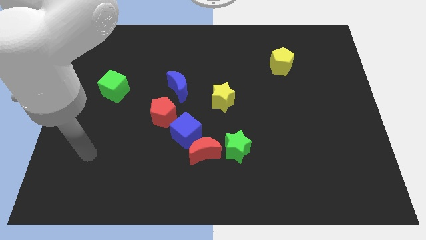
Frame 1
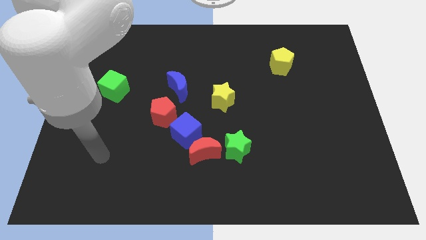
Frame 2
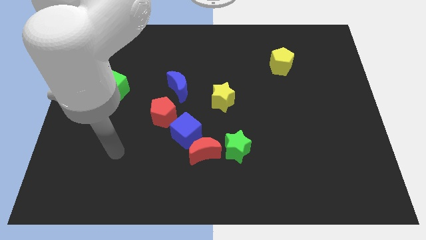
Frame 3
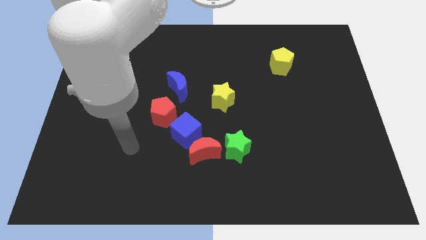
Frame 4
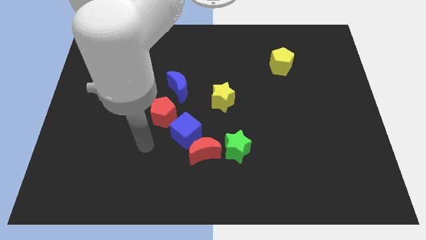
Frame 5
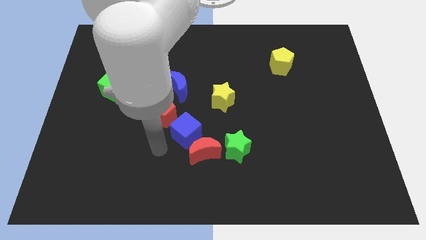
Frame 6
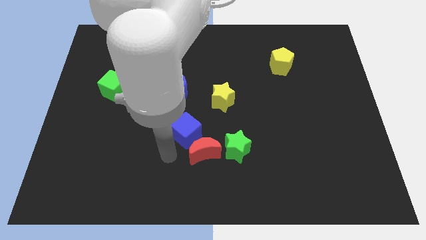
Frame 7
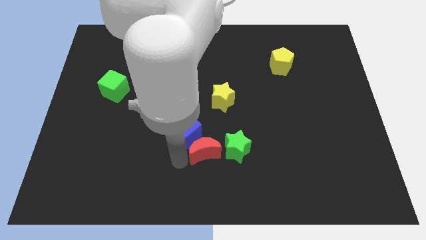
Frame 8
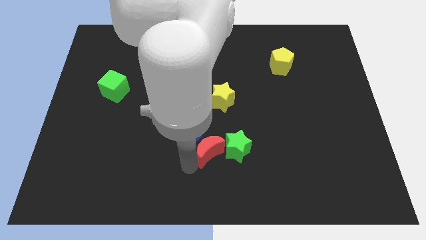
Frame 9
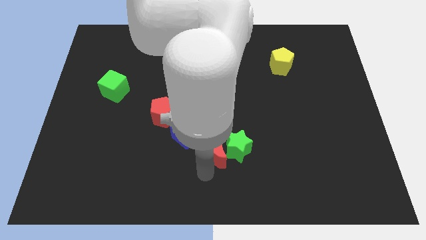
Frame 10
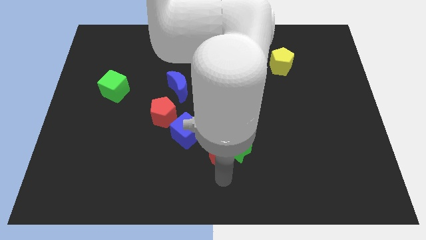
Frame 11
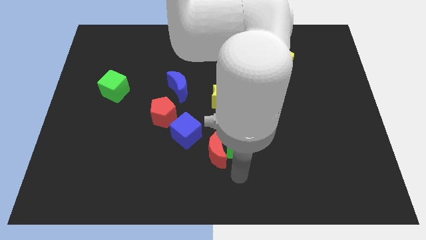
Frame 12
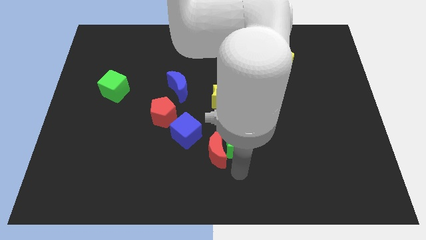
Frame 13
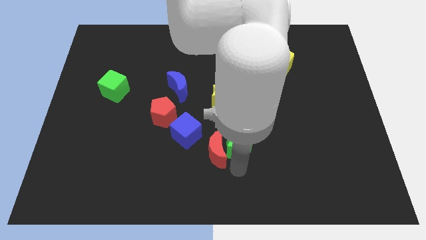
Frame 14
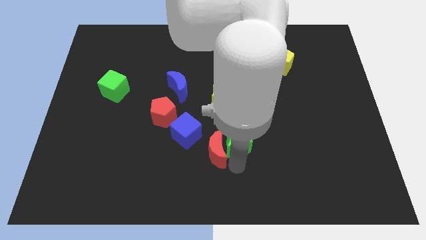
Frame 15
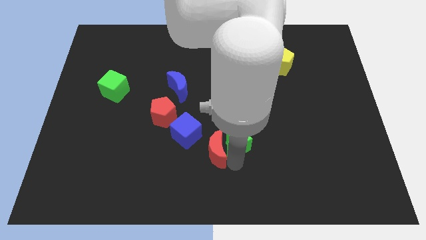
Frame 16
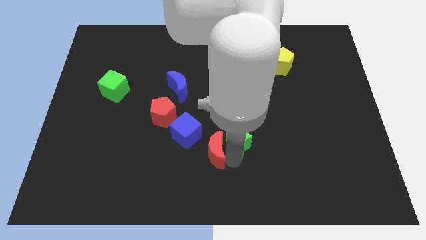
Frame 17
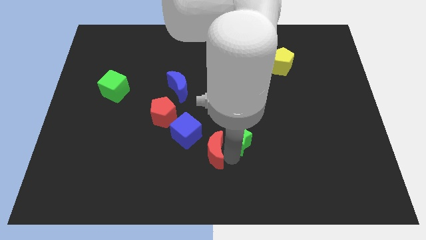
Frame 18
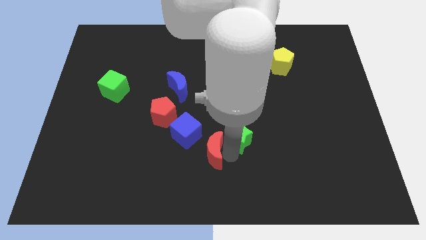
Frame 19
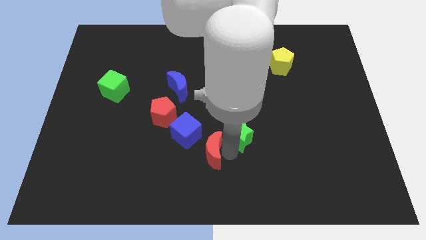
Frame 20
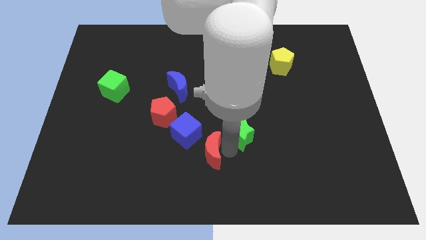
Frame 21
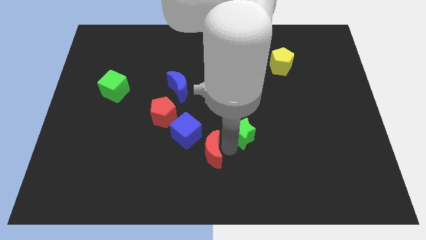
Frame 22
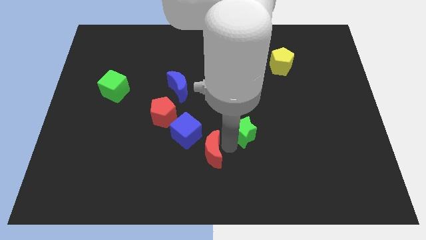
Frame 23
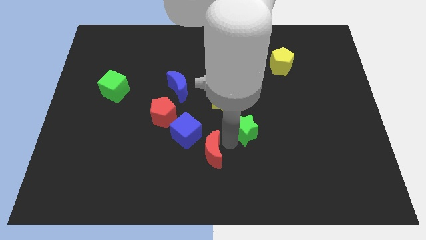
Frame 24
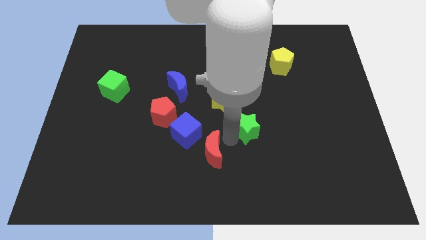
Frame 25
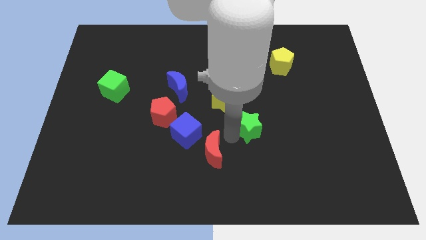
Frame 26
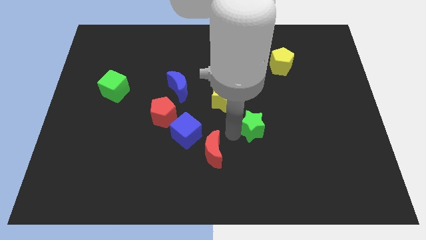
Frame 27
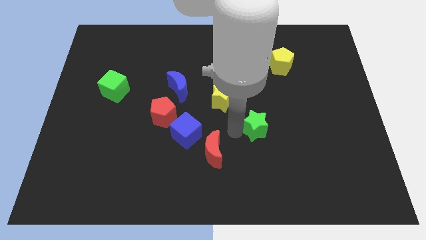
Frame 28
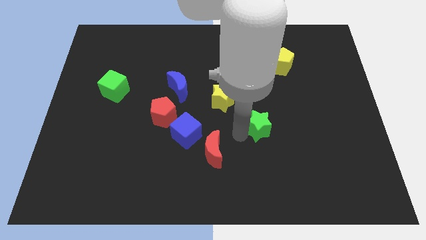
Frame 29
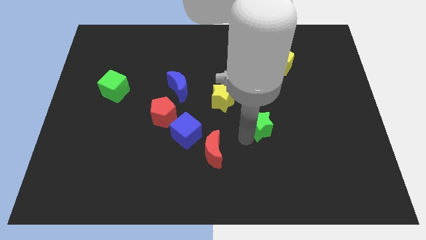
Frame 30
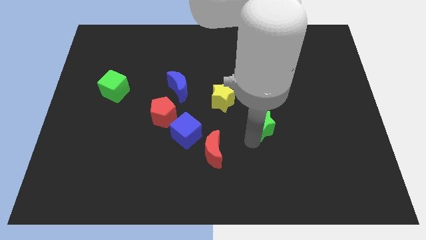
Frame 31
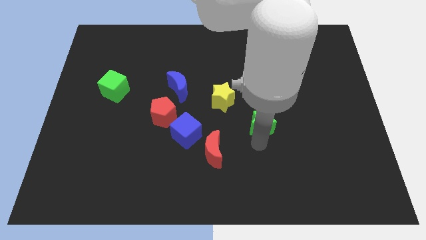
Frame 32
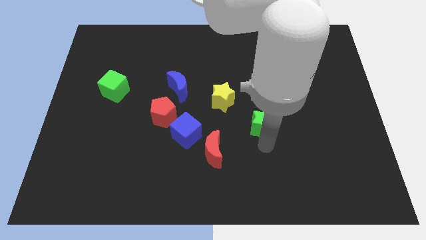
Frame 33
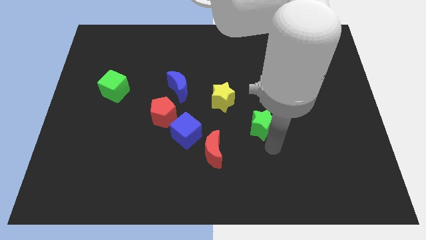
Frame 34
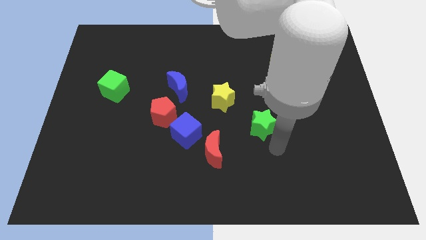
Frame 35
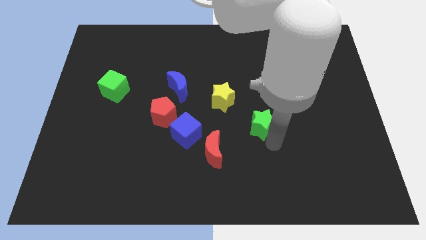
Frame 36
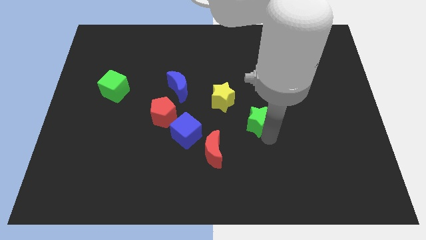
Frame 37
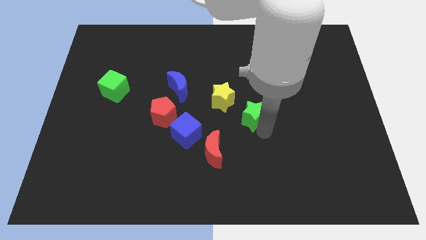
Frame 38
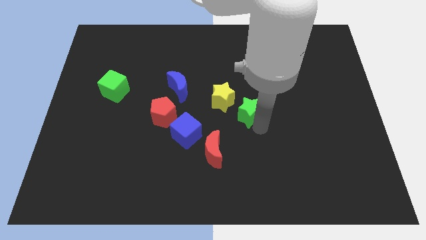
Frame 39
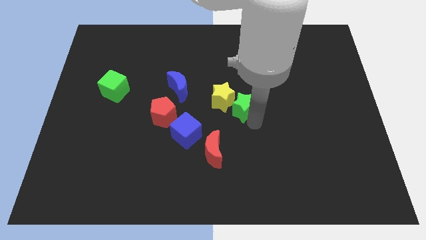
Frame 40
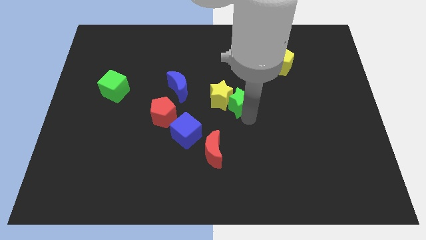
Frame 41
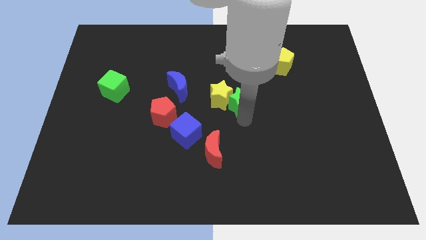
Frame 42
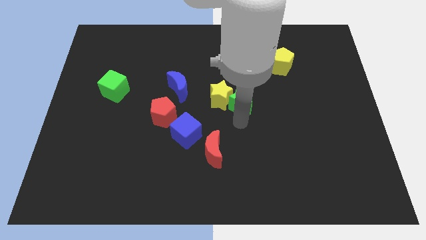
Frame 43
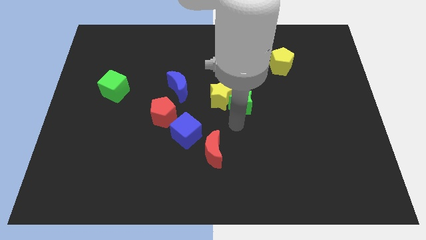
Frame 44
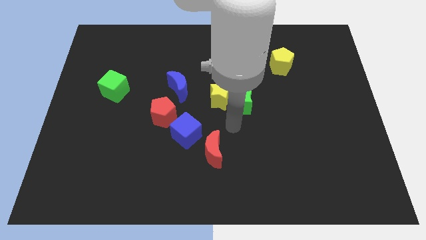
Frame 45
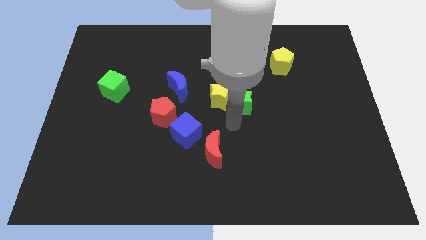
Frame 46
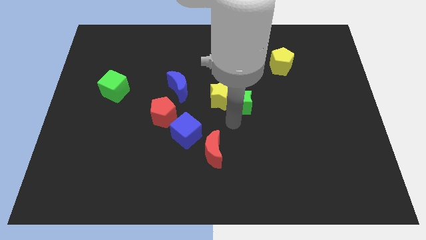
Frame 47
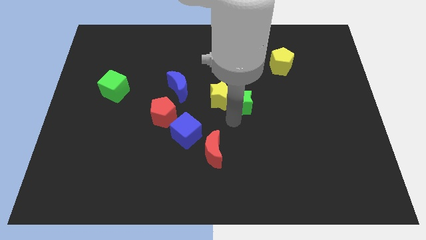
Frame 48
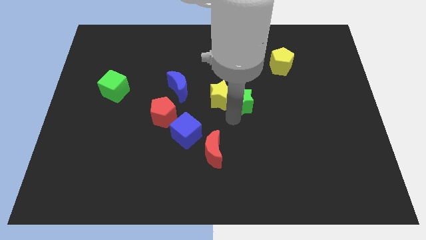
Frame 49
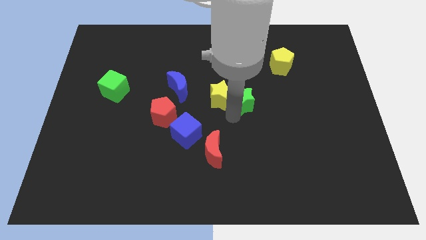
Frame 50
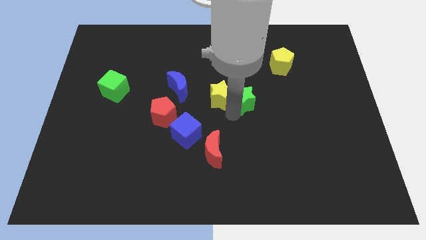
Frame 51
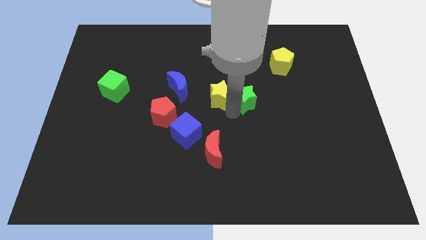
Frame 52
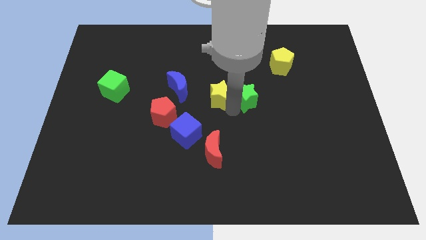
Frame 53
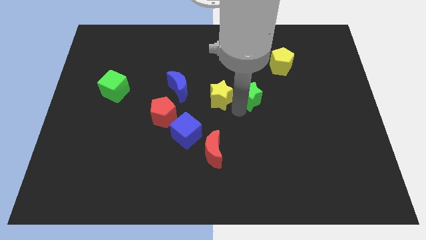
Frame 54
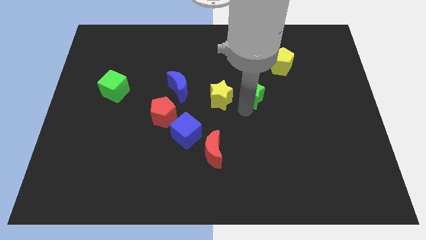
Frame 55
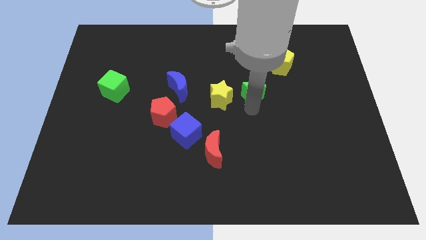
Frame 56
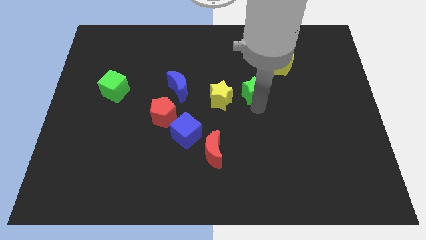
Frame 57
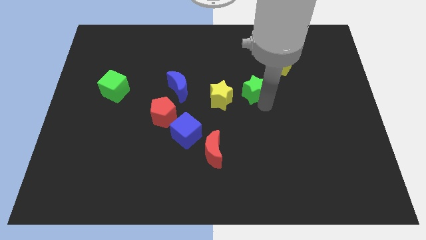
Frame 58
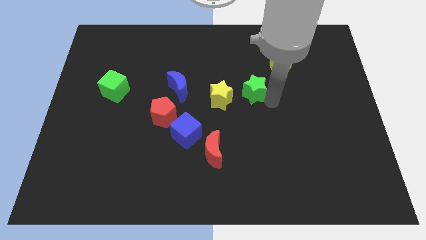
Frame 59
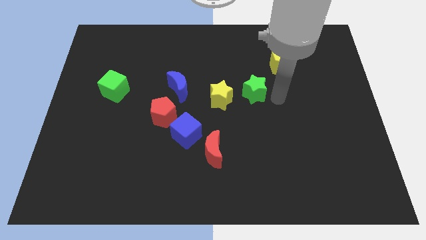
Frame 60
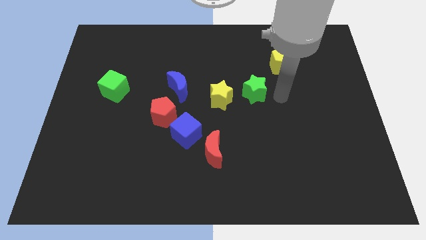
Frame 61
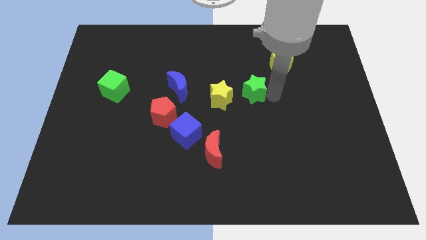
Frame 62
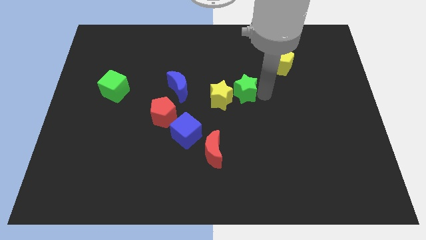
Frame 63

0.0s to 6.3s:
put the green star to the right of the blue moon
